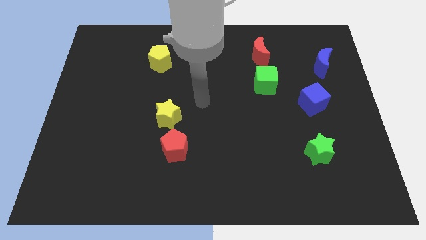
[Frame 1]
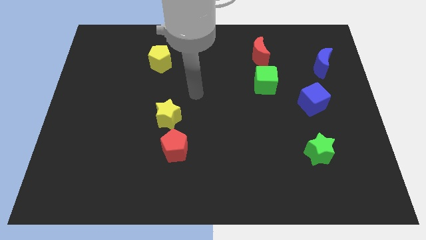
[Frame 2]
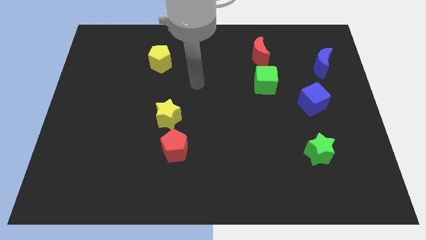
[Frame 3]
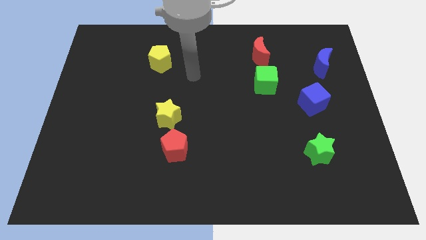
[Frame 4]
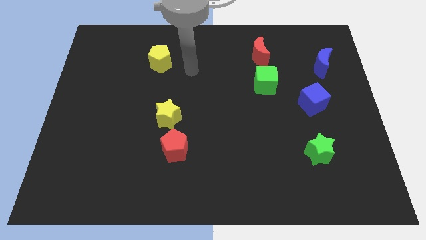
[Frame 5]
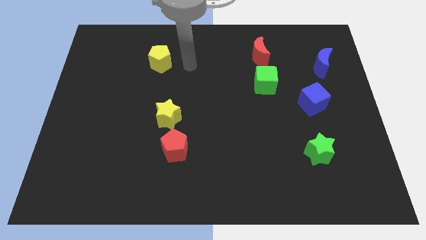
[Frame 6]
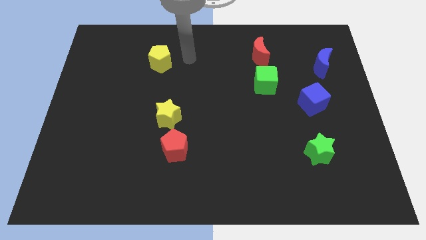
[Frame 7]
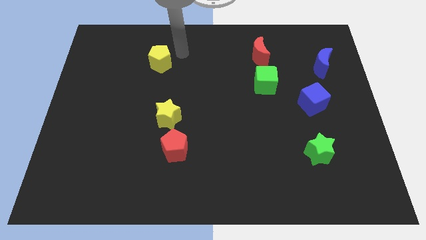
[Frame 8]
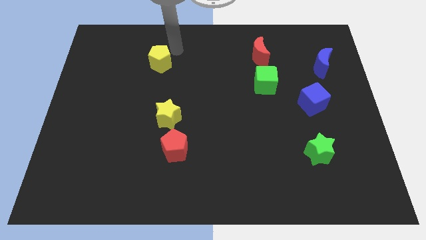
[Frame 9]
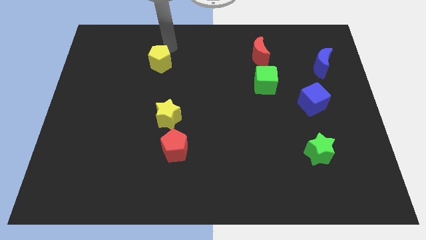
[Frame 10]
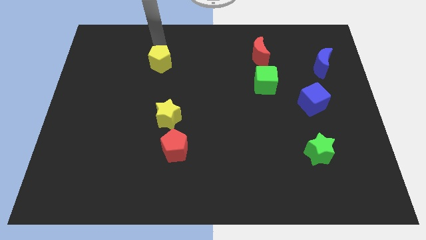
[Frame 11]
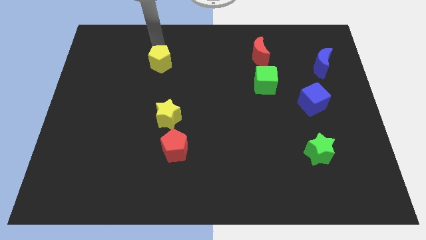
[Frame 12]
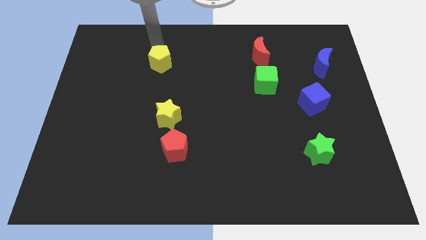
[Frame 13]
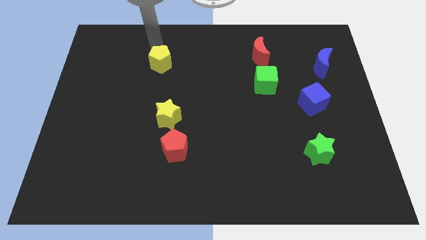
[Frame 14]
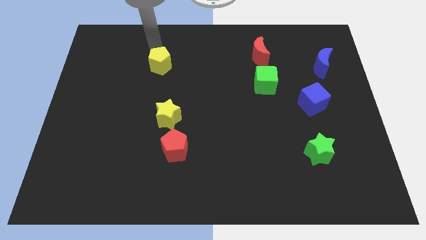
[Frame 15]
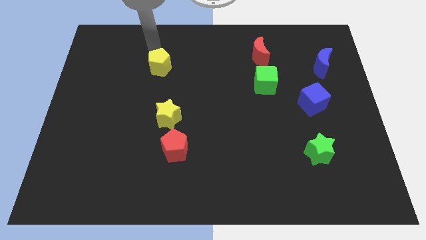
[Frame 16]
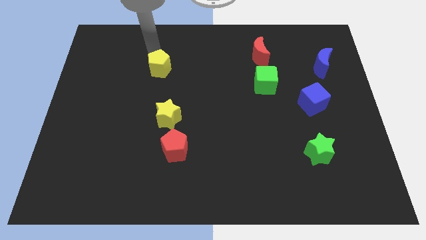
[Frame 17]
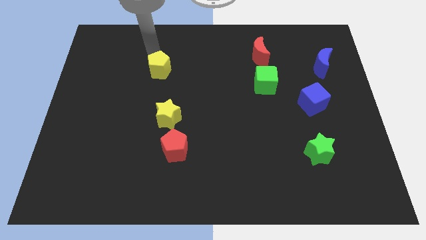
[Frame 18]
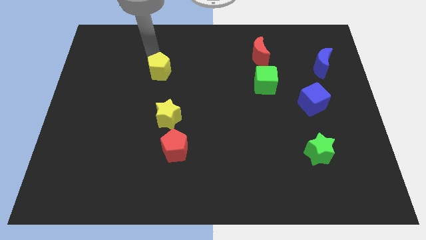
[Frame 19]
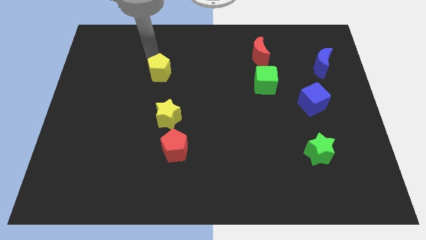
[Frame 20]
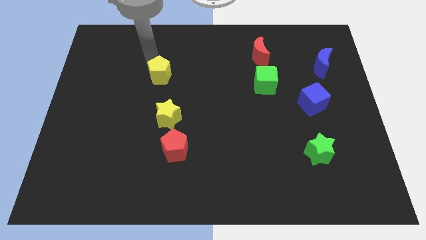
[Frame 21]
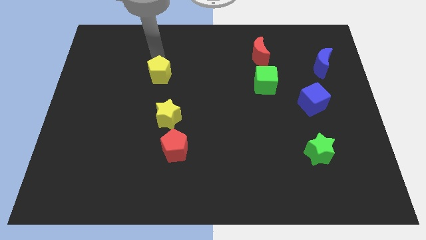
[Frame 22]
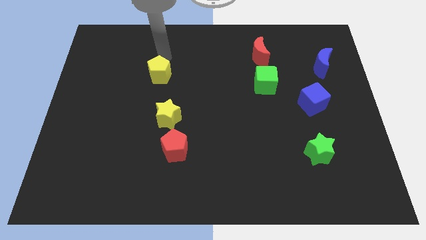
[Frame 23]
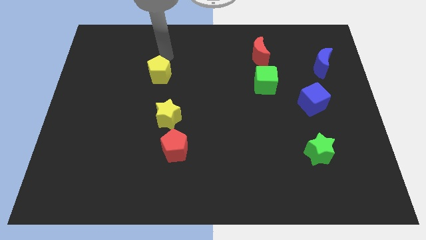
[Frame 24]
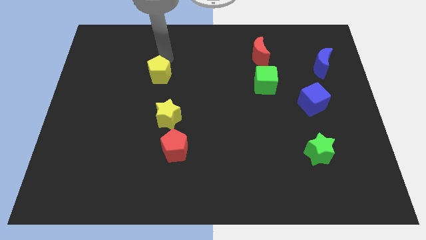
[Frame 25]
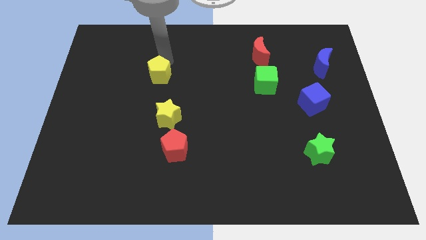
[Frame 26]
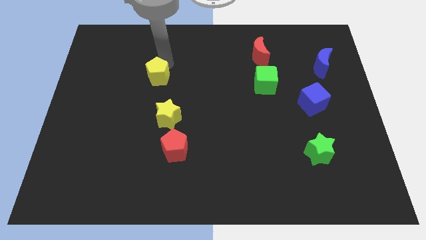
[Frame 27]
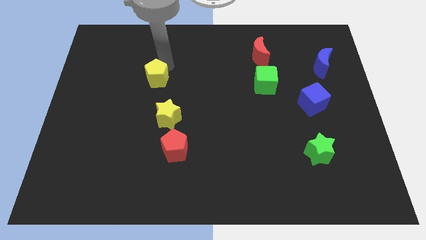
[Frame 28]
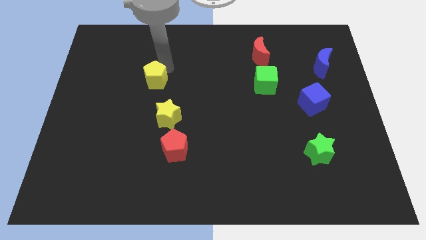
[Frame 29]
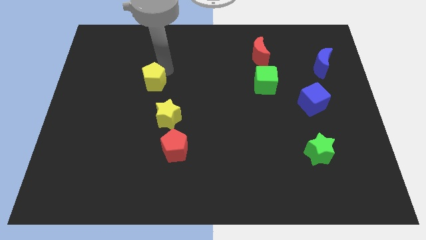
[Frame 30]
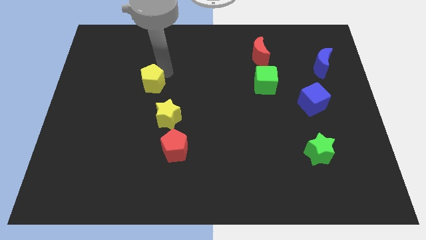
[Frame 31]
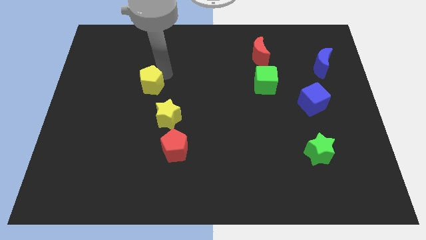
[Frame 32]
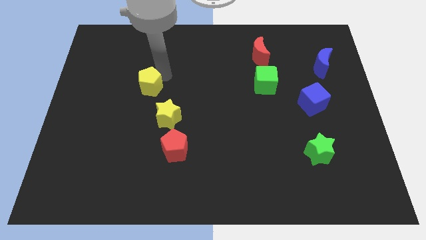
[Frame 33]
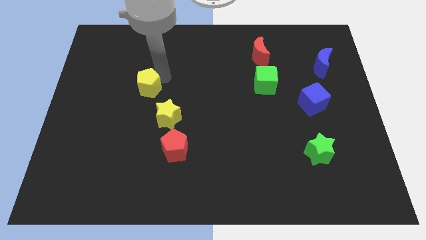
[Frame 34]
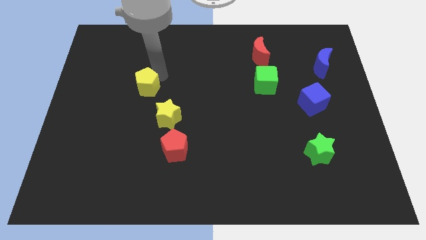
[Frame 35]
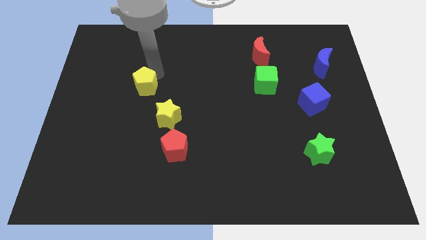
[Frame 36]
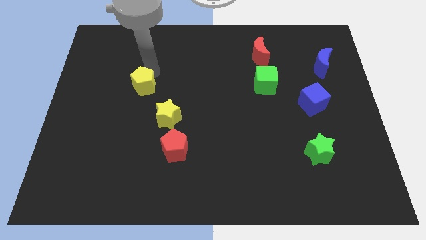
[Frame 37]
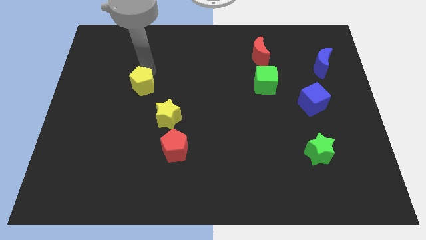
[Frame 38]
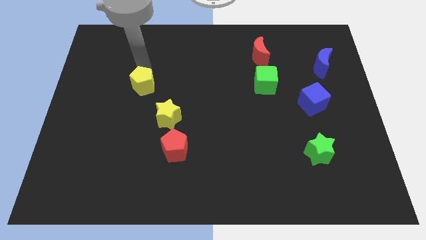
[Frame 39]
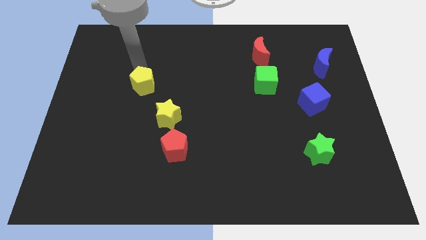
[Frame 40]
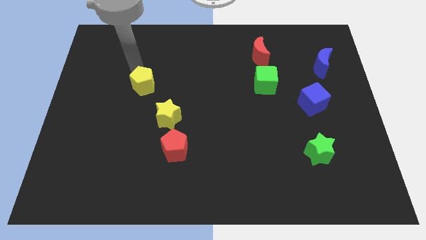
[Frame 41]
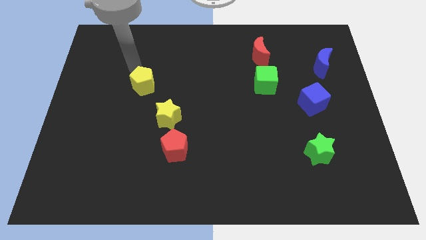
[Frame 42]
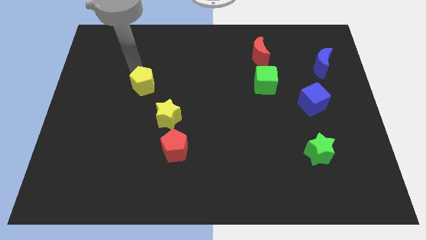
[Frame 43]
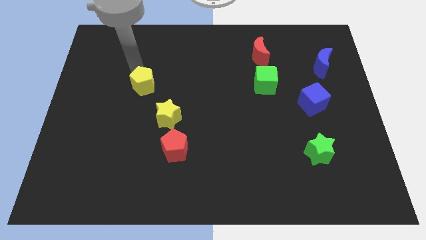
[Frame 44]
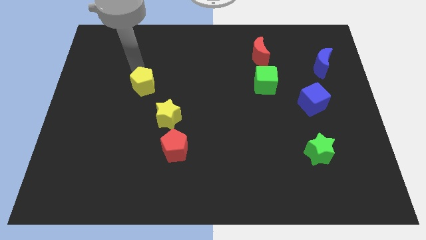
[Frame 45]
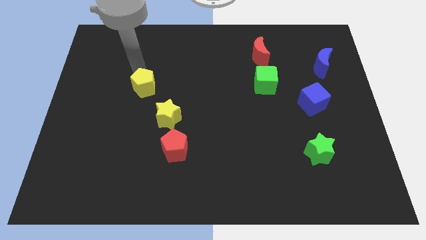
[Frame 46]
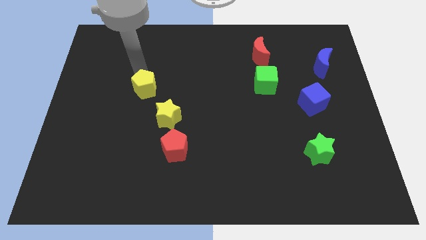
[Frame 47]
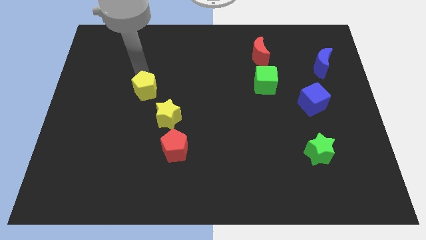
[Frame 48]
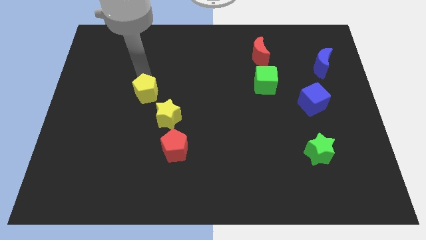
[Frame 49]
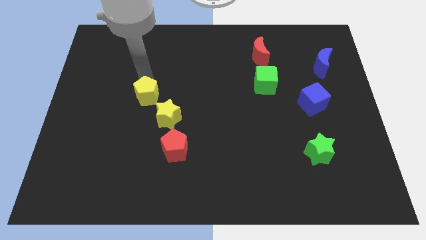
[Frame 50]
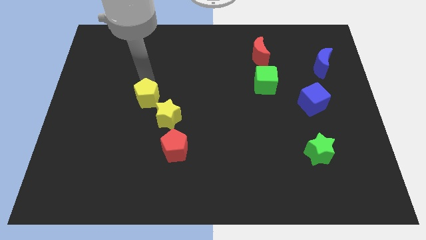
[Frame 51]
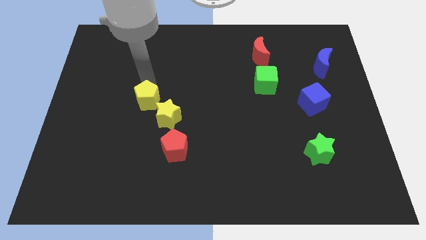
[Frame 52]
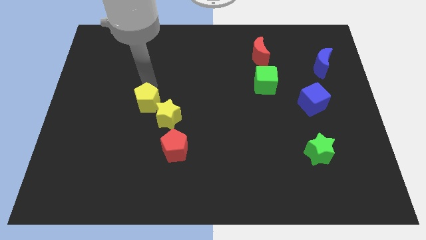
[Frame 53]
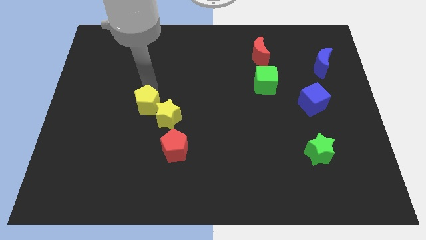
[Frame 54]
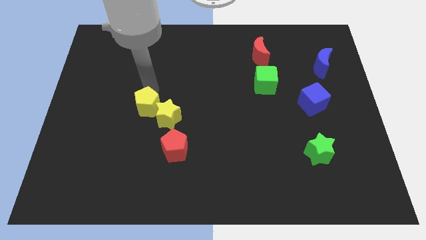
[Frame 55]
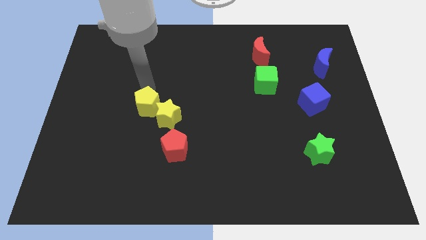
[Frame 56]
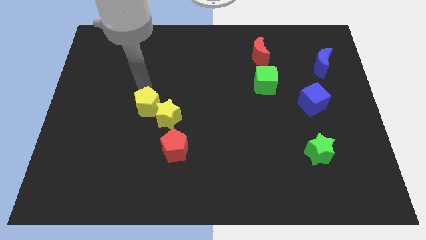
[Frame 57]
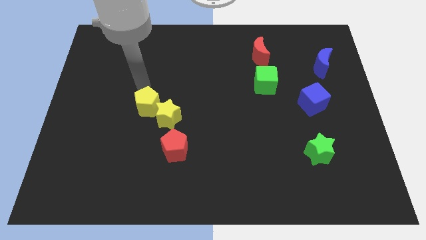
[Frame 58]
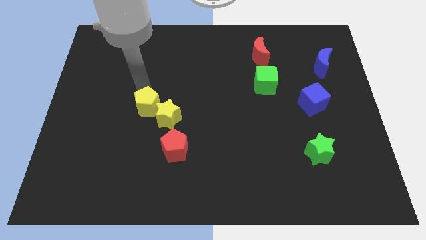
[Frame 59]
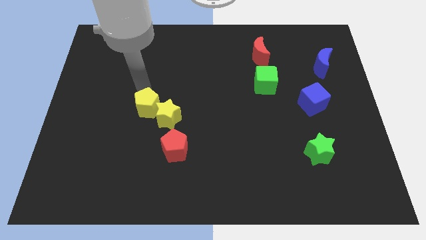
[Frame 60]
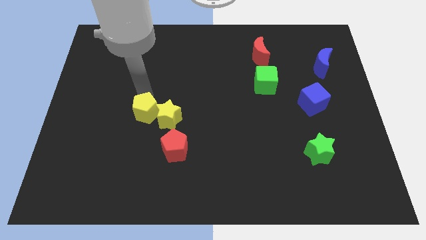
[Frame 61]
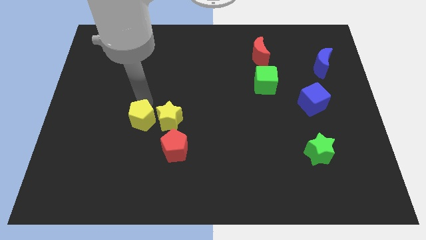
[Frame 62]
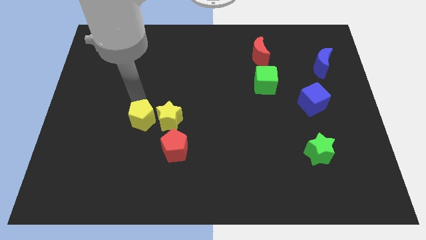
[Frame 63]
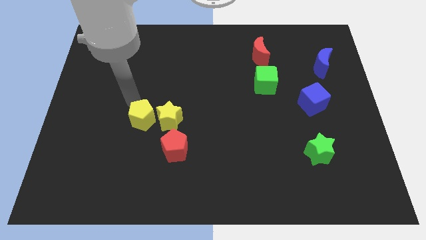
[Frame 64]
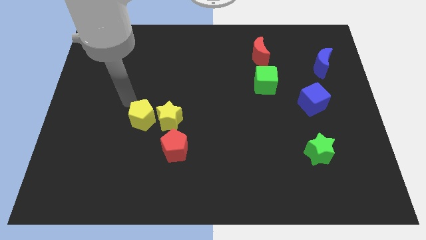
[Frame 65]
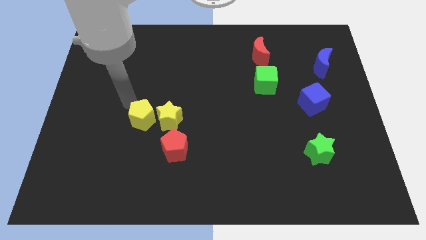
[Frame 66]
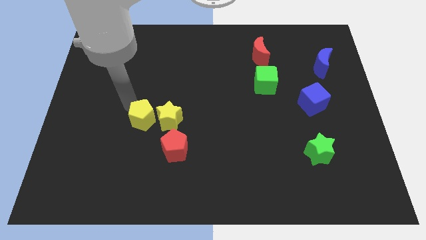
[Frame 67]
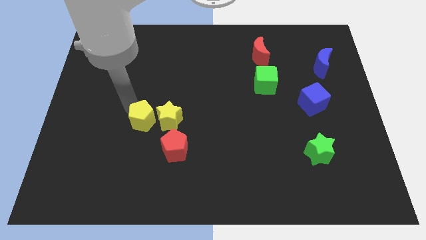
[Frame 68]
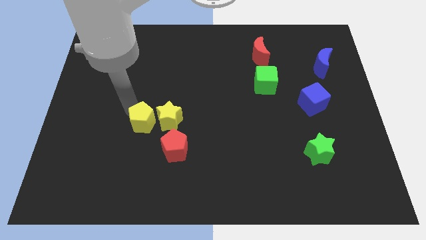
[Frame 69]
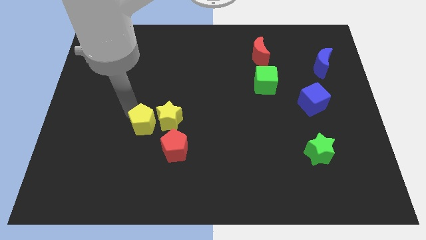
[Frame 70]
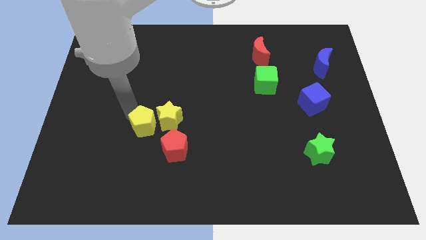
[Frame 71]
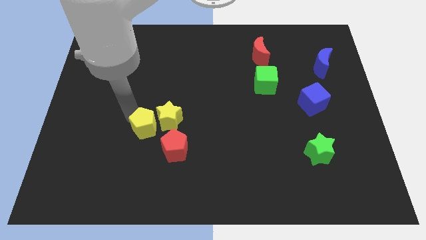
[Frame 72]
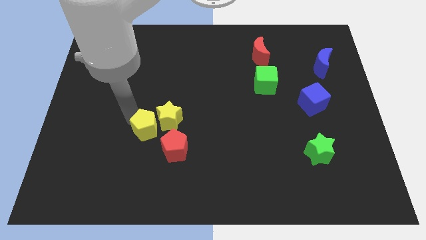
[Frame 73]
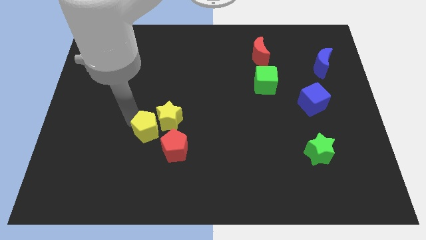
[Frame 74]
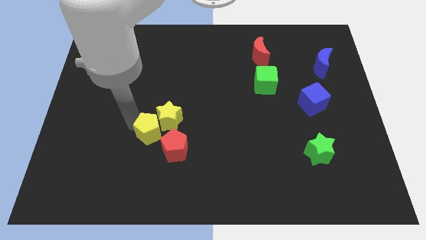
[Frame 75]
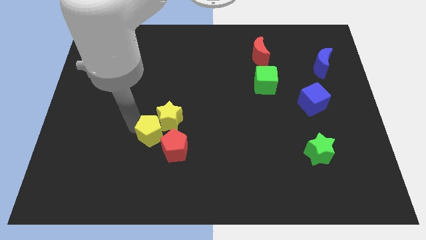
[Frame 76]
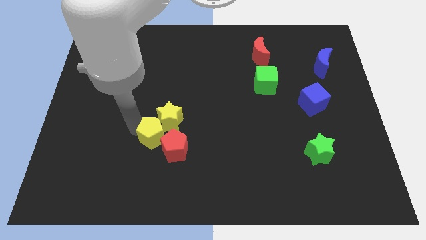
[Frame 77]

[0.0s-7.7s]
push the yellow pentagon to the red pentagon
